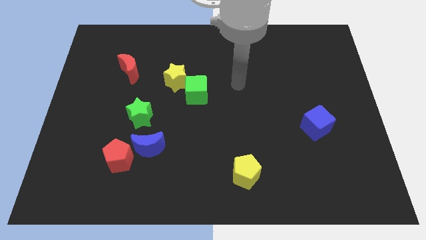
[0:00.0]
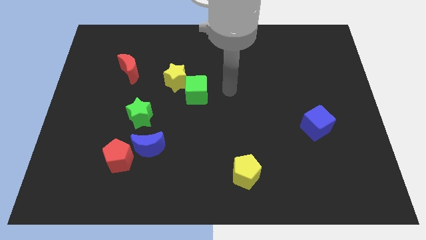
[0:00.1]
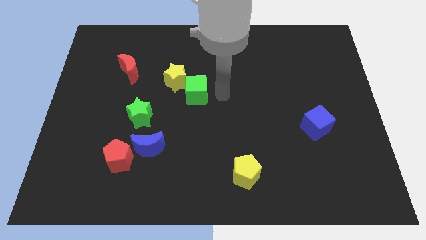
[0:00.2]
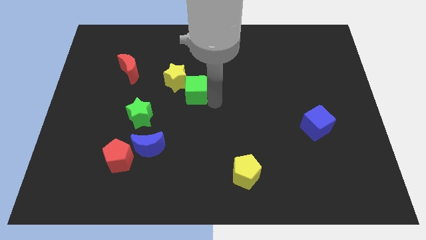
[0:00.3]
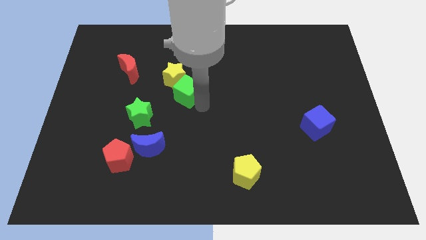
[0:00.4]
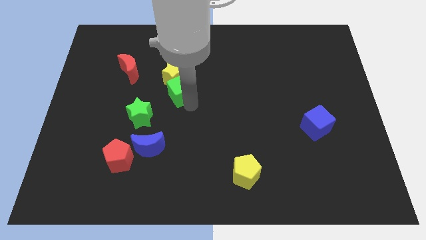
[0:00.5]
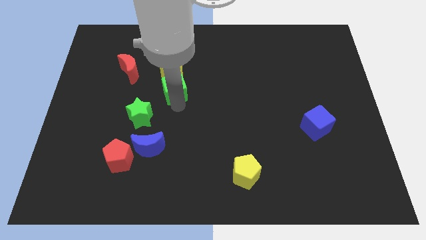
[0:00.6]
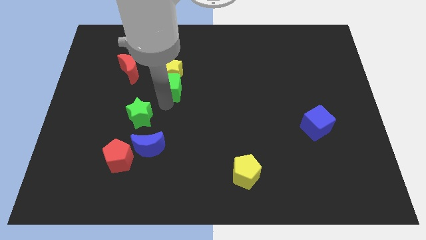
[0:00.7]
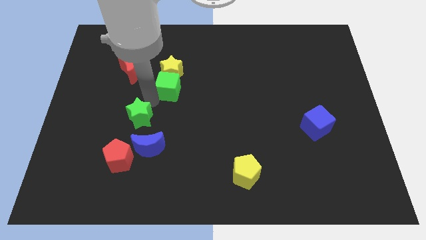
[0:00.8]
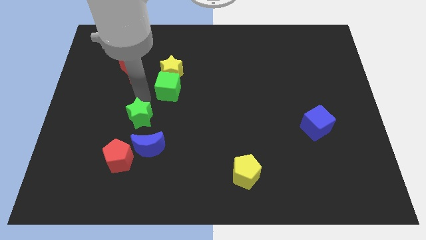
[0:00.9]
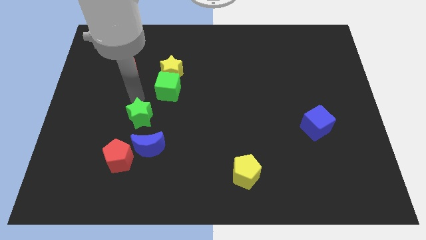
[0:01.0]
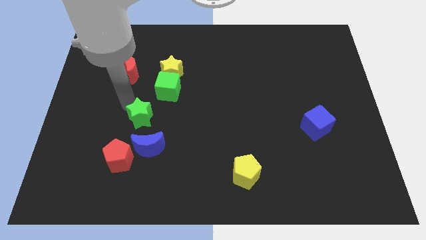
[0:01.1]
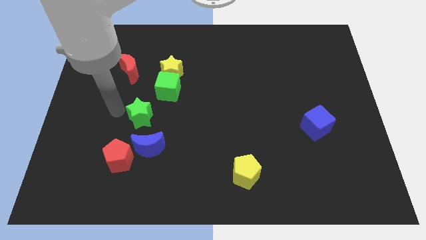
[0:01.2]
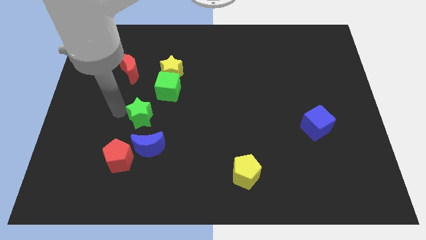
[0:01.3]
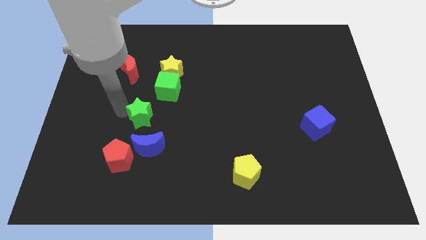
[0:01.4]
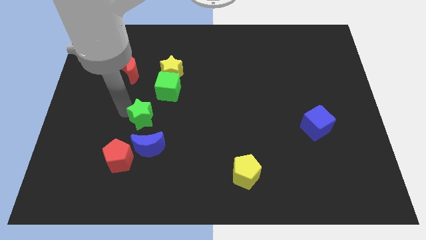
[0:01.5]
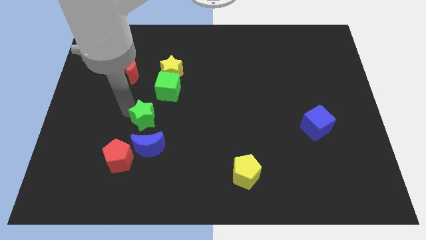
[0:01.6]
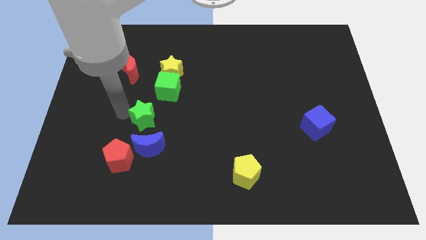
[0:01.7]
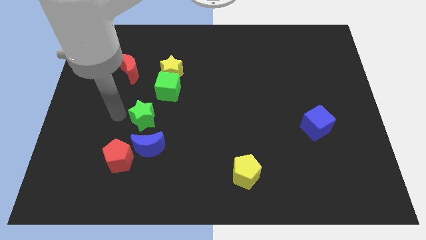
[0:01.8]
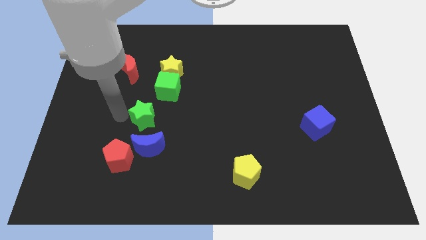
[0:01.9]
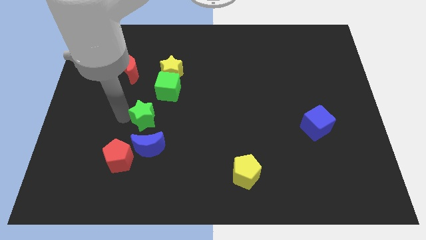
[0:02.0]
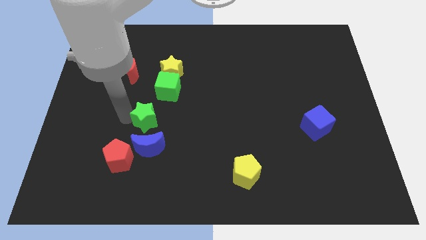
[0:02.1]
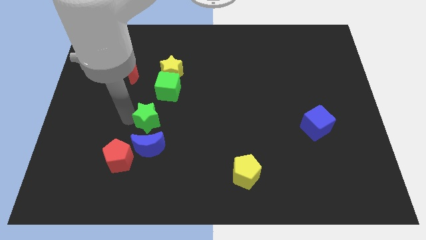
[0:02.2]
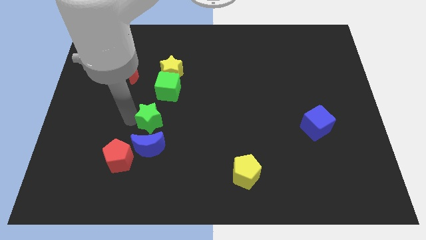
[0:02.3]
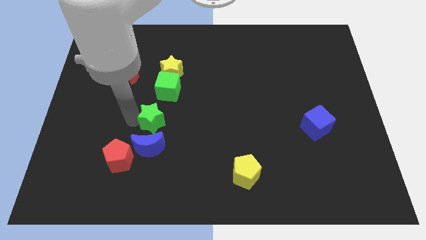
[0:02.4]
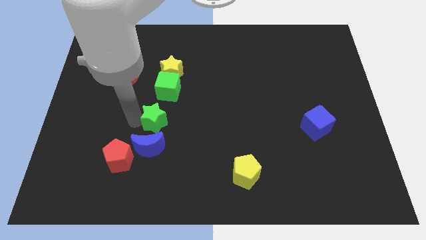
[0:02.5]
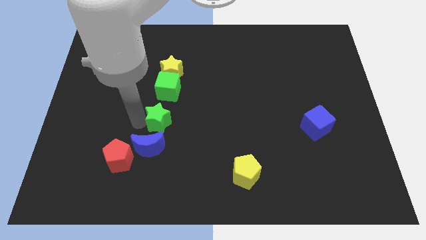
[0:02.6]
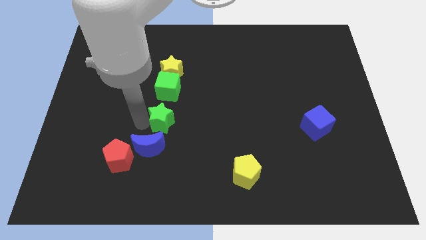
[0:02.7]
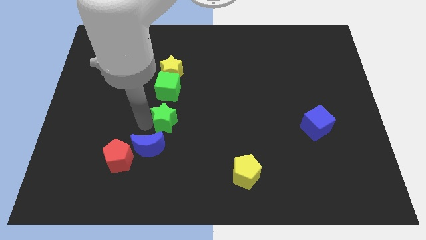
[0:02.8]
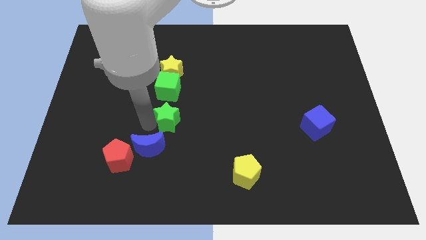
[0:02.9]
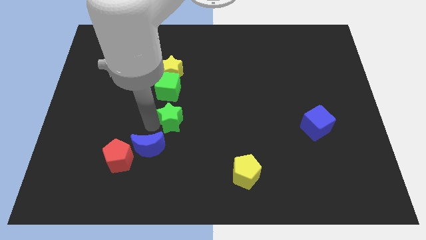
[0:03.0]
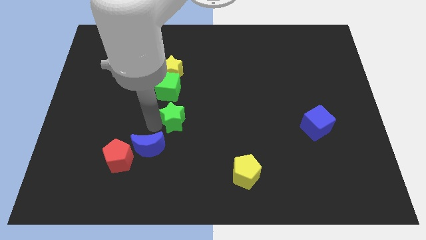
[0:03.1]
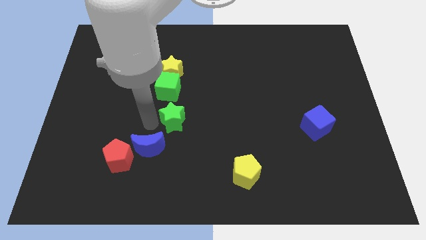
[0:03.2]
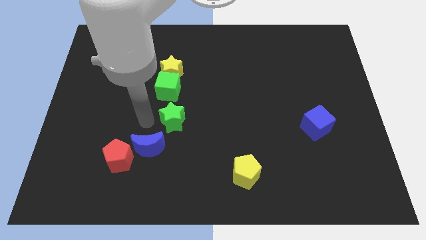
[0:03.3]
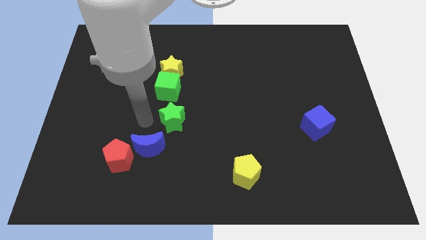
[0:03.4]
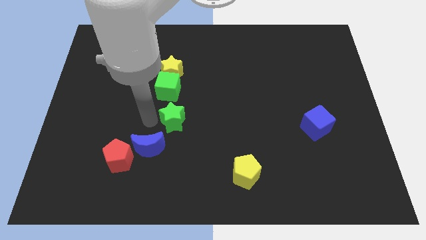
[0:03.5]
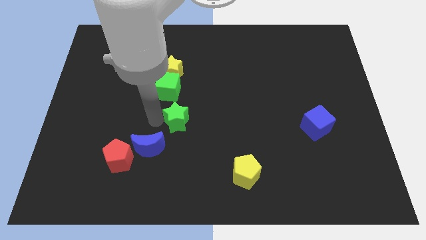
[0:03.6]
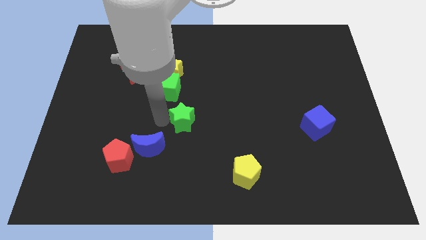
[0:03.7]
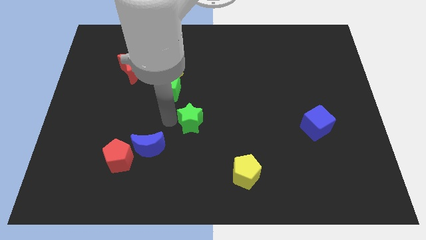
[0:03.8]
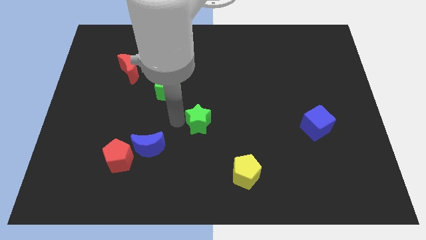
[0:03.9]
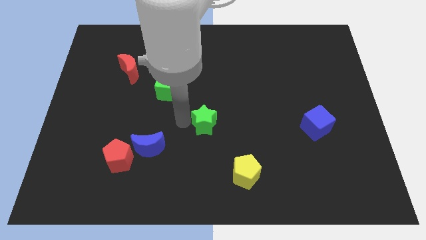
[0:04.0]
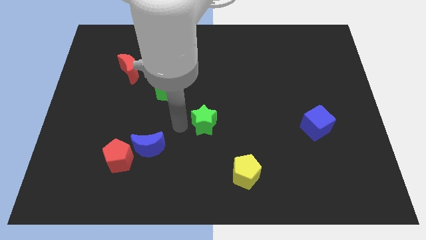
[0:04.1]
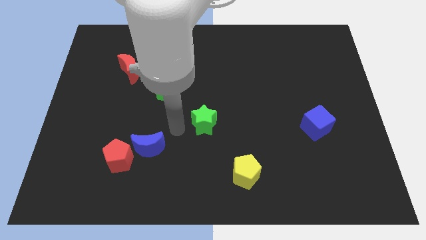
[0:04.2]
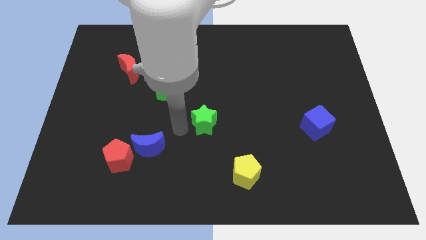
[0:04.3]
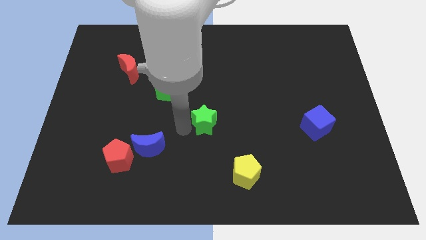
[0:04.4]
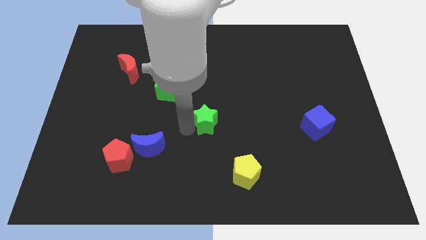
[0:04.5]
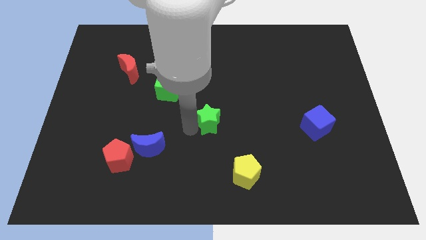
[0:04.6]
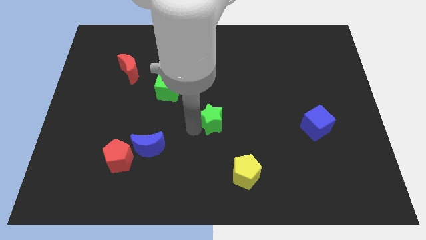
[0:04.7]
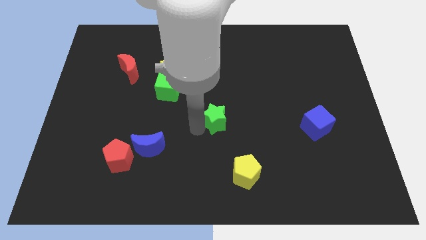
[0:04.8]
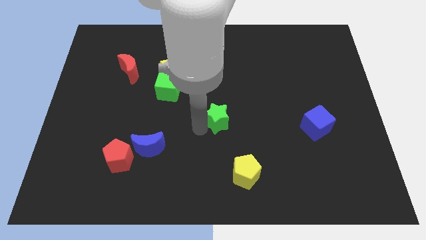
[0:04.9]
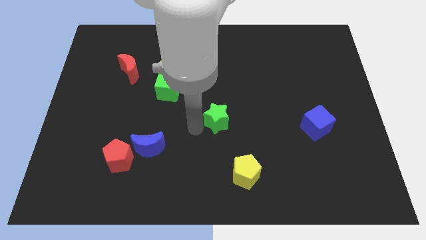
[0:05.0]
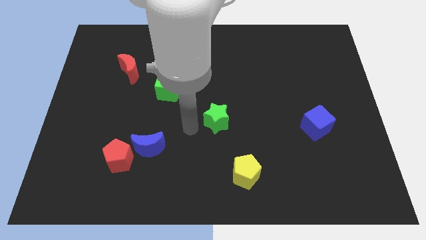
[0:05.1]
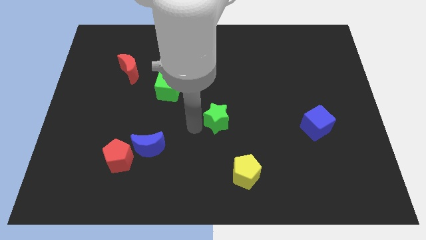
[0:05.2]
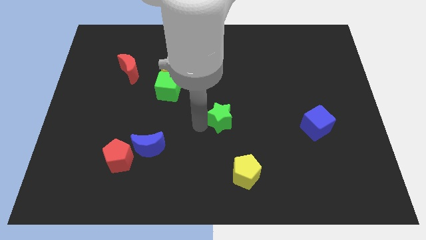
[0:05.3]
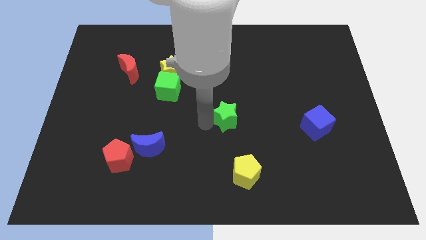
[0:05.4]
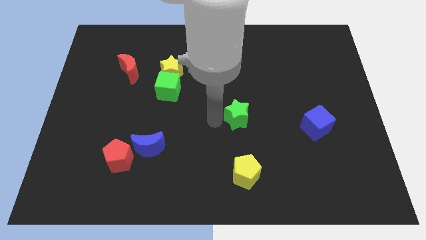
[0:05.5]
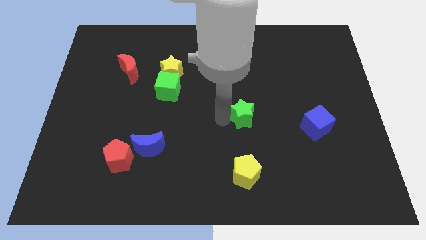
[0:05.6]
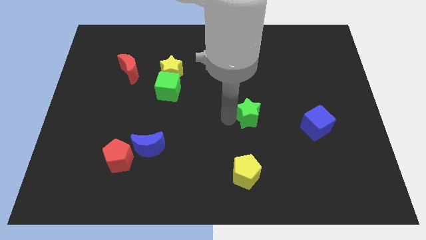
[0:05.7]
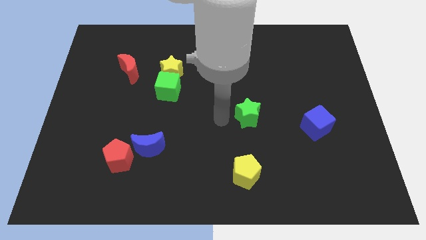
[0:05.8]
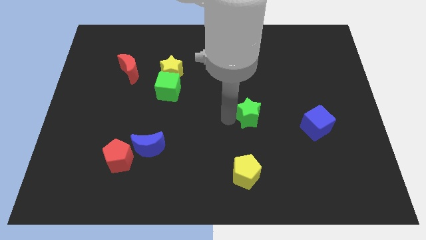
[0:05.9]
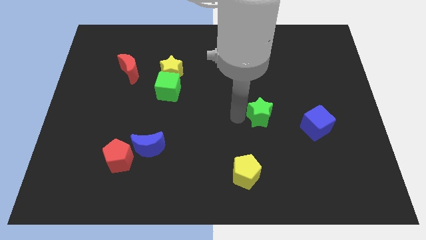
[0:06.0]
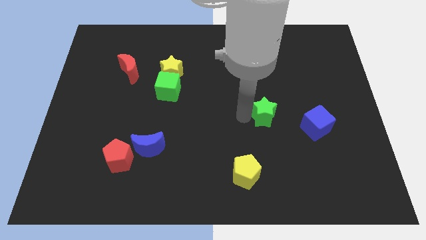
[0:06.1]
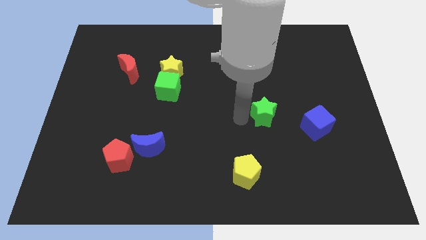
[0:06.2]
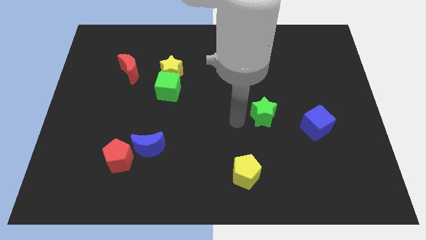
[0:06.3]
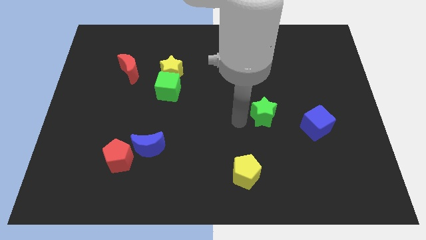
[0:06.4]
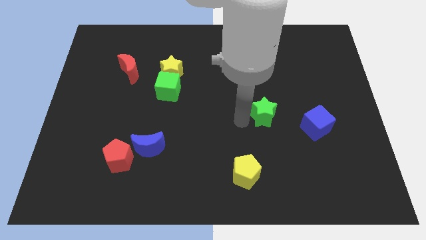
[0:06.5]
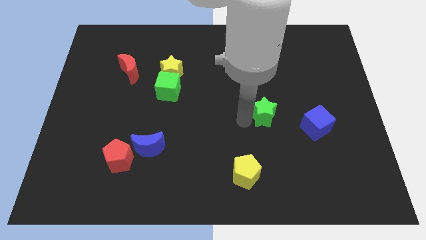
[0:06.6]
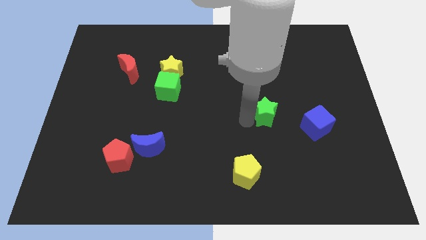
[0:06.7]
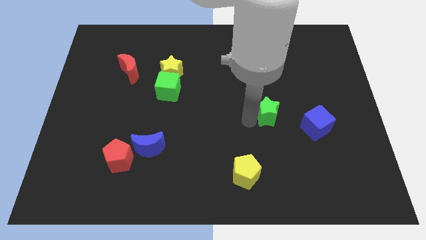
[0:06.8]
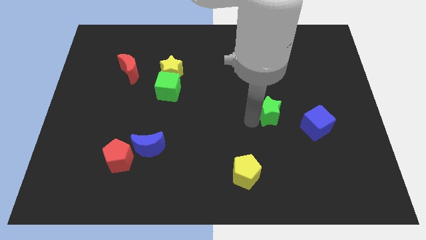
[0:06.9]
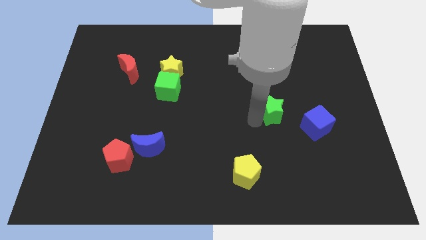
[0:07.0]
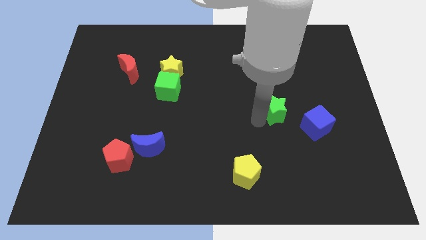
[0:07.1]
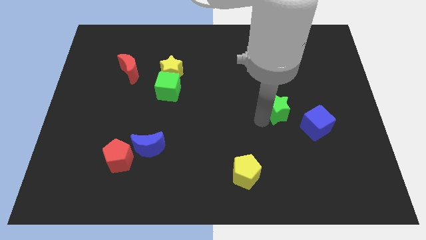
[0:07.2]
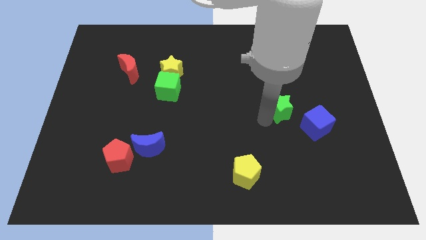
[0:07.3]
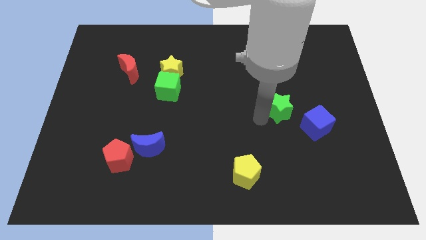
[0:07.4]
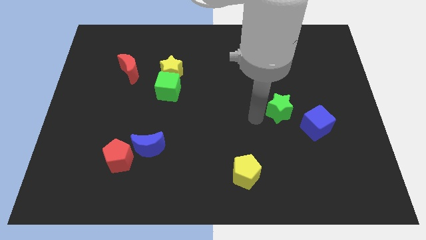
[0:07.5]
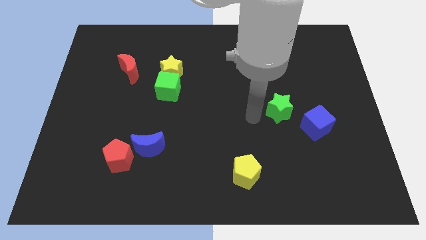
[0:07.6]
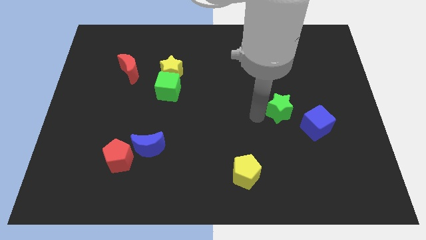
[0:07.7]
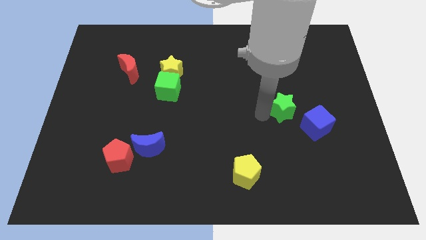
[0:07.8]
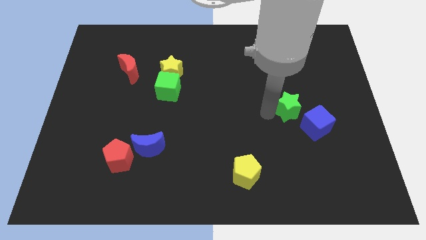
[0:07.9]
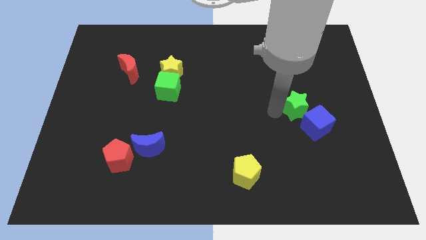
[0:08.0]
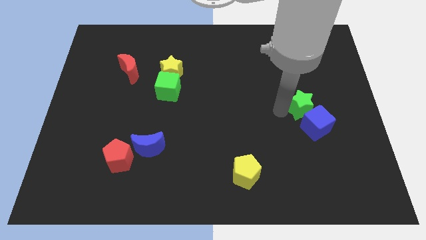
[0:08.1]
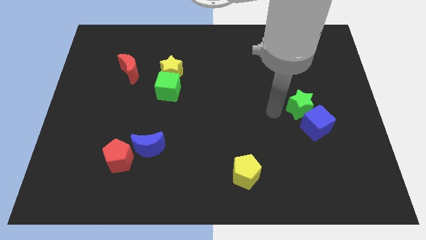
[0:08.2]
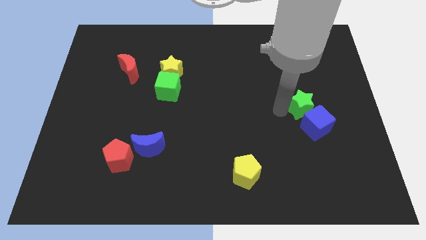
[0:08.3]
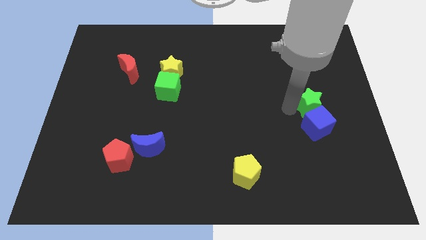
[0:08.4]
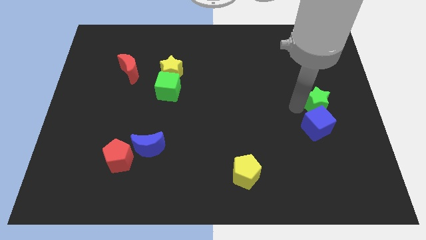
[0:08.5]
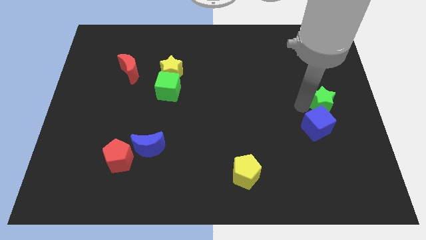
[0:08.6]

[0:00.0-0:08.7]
slide the green star to the right side
